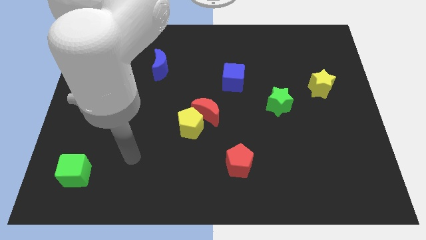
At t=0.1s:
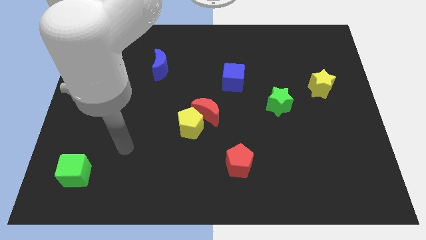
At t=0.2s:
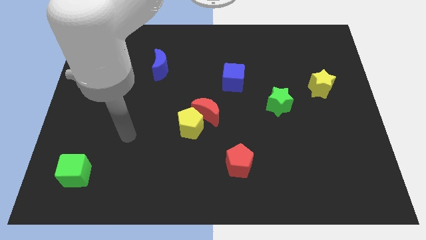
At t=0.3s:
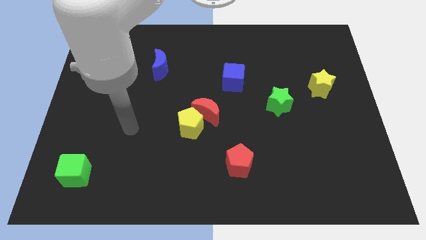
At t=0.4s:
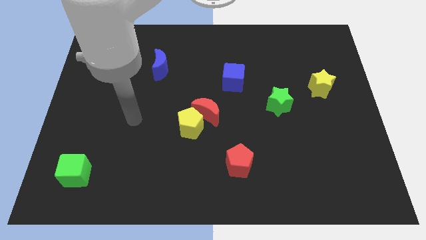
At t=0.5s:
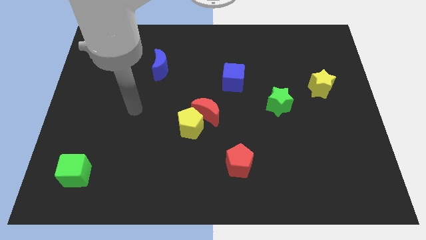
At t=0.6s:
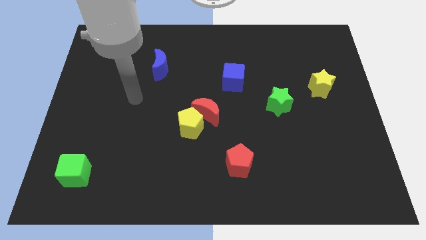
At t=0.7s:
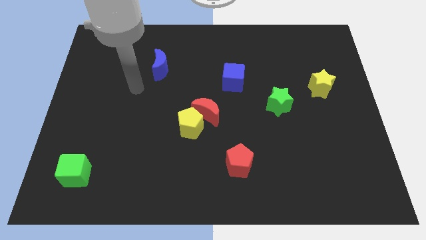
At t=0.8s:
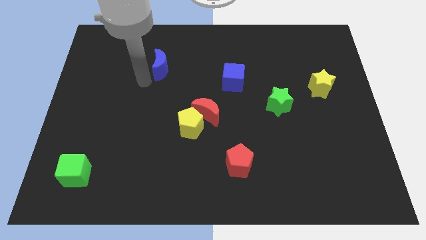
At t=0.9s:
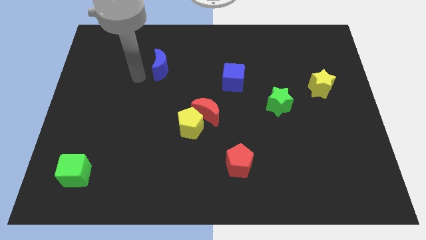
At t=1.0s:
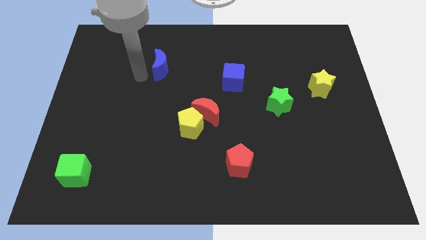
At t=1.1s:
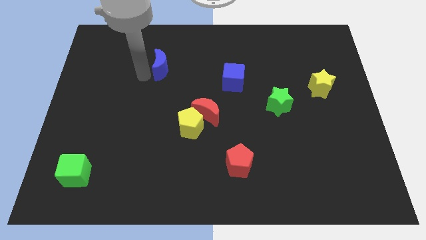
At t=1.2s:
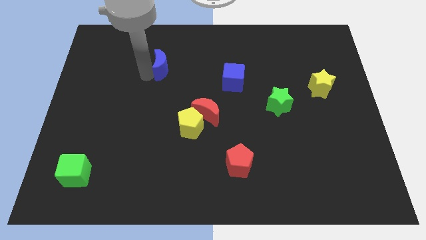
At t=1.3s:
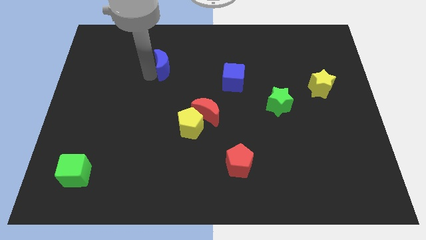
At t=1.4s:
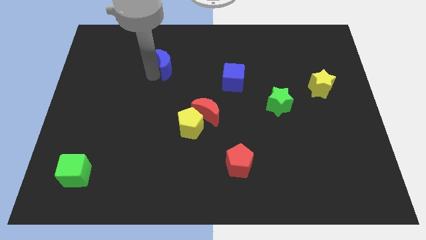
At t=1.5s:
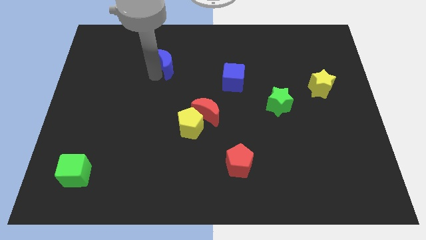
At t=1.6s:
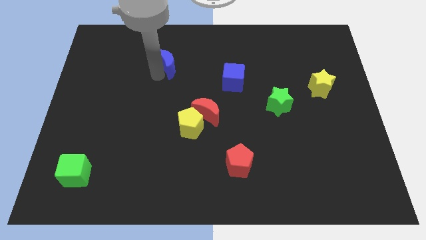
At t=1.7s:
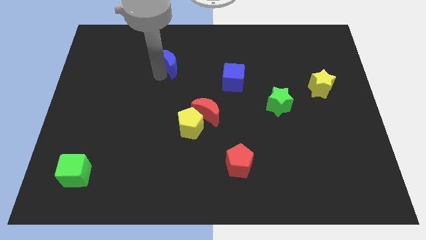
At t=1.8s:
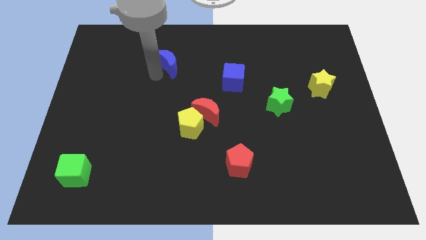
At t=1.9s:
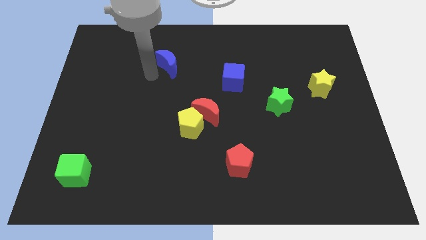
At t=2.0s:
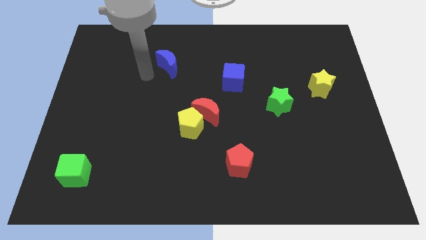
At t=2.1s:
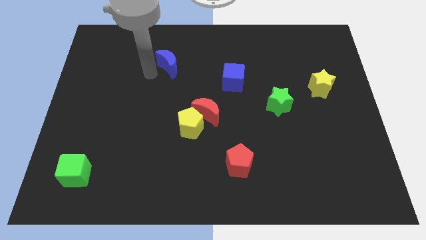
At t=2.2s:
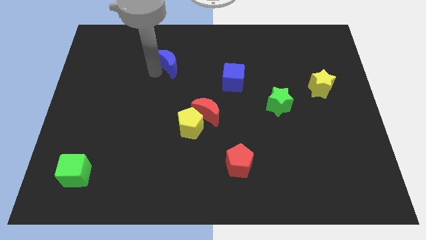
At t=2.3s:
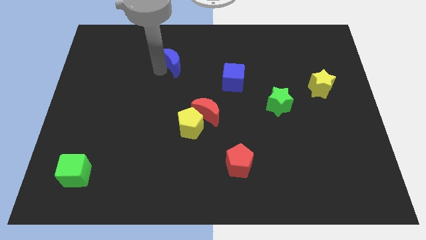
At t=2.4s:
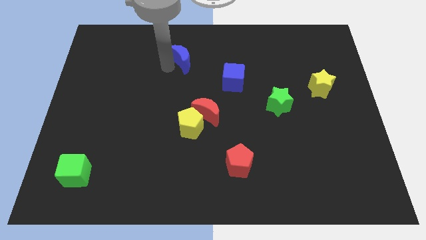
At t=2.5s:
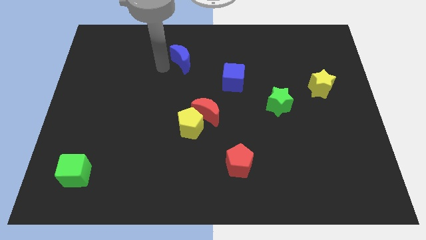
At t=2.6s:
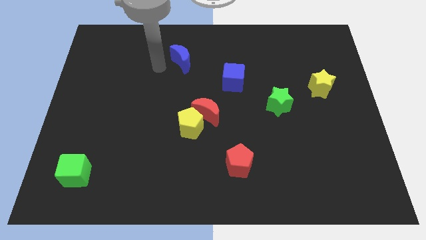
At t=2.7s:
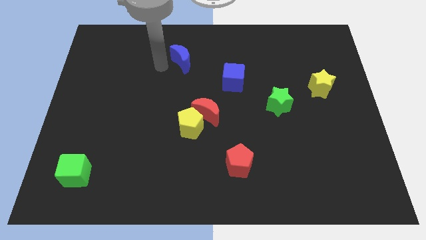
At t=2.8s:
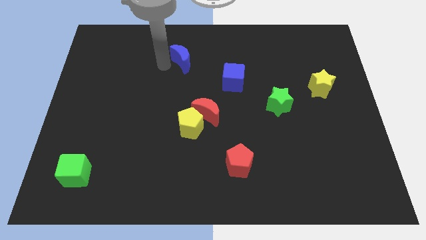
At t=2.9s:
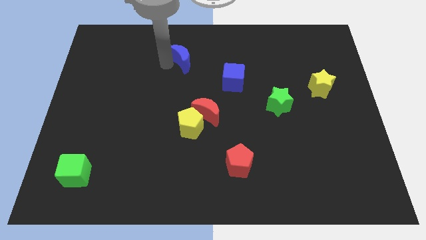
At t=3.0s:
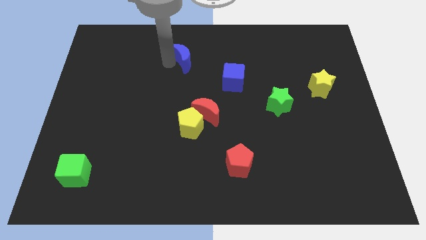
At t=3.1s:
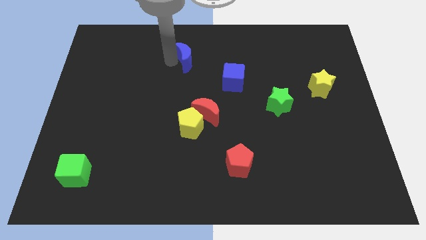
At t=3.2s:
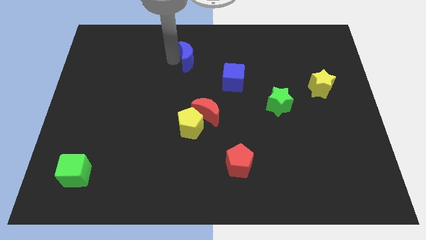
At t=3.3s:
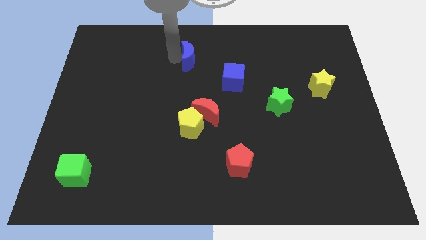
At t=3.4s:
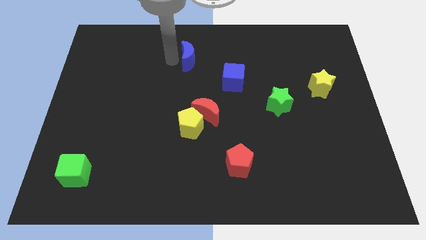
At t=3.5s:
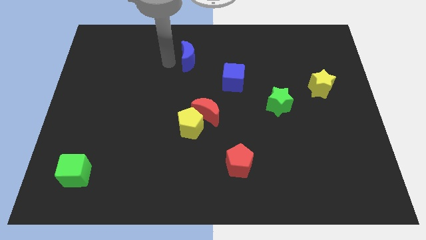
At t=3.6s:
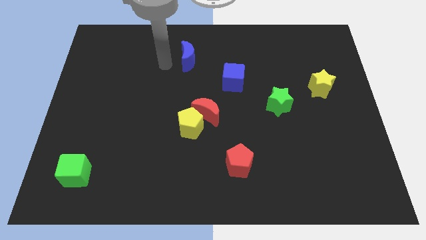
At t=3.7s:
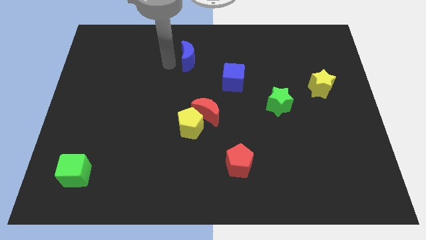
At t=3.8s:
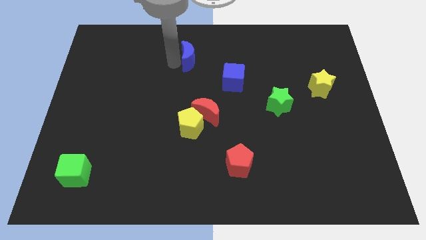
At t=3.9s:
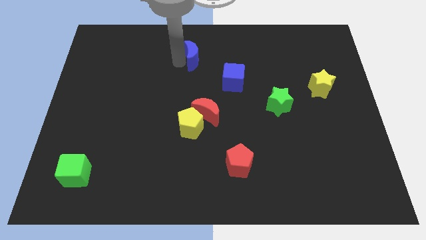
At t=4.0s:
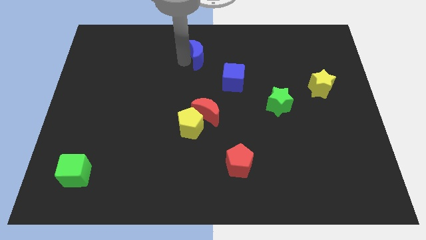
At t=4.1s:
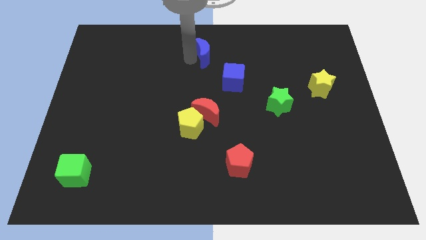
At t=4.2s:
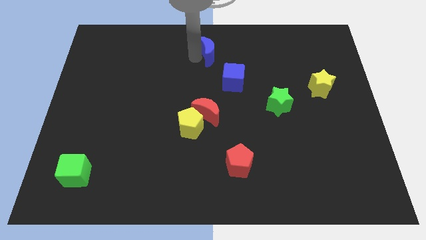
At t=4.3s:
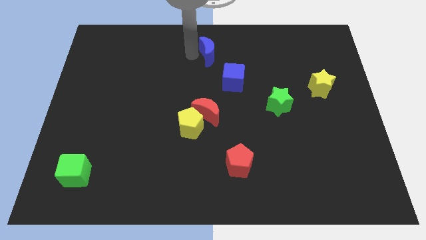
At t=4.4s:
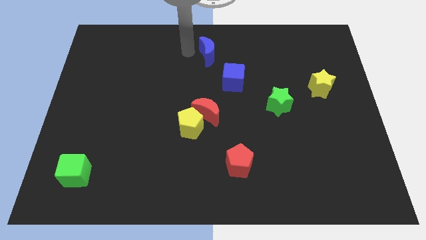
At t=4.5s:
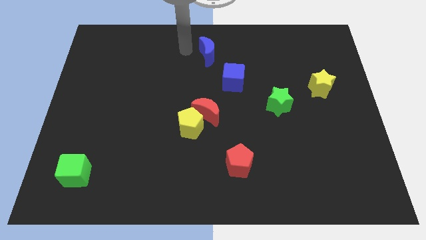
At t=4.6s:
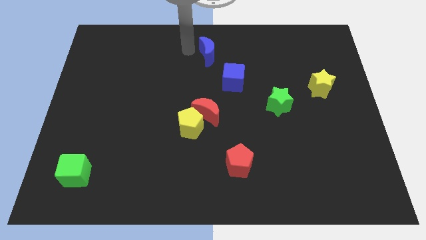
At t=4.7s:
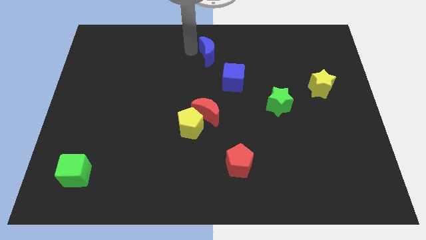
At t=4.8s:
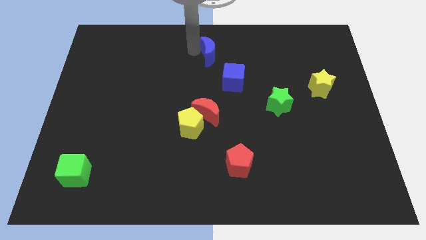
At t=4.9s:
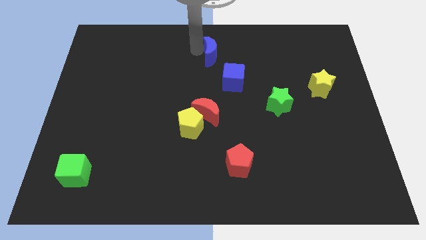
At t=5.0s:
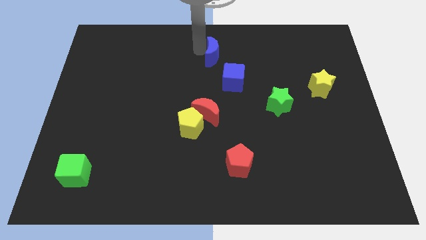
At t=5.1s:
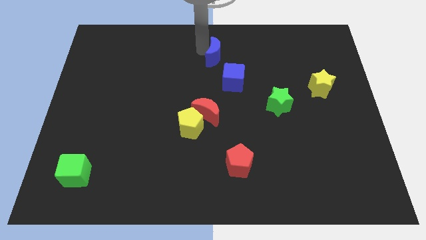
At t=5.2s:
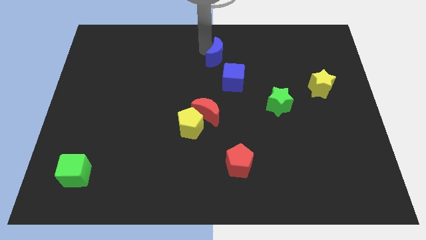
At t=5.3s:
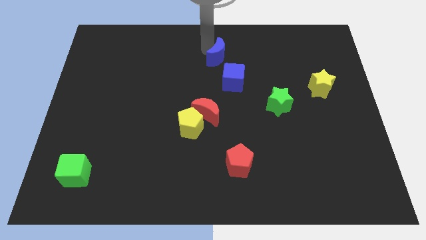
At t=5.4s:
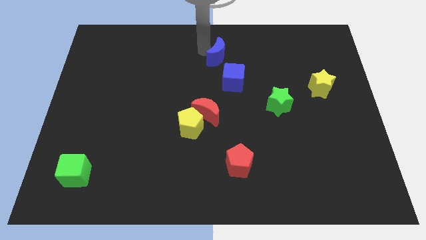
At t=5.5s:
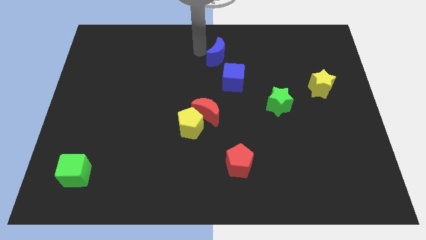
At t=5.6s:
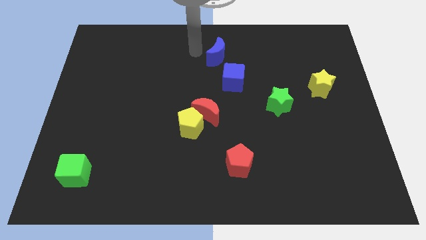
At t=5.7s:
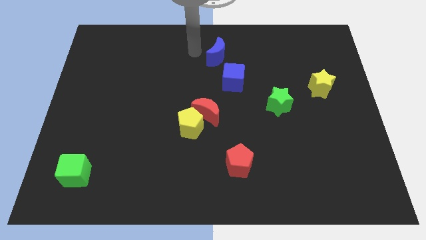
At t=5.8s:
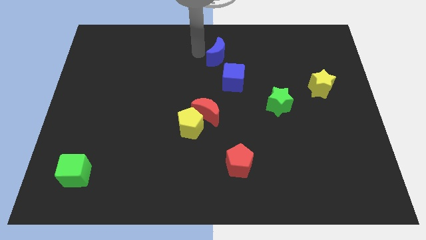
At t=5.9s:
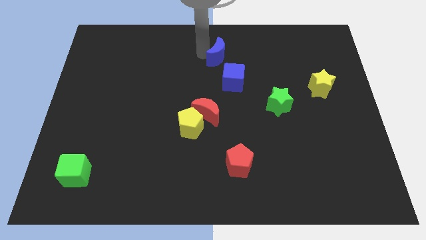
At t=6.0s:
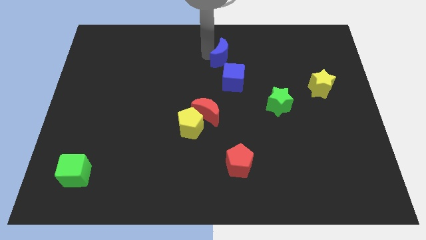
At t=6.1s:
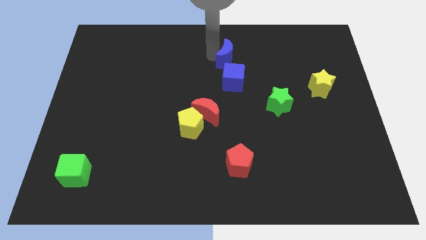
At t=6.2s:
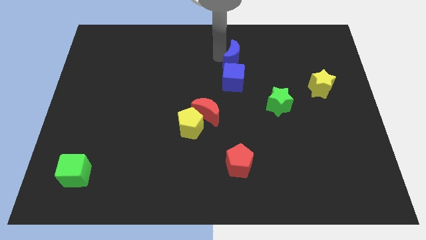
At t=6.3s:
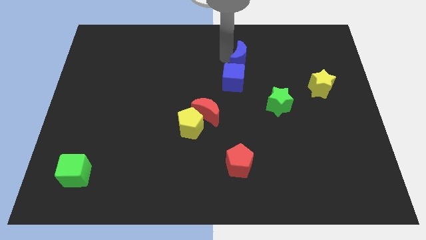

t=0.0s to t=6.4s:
put the blue moon to the top right of the blue cube
